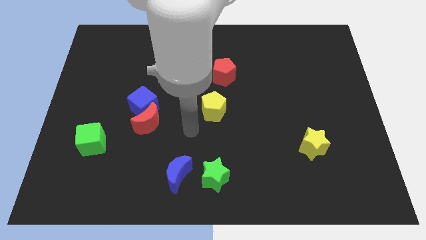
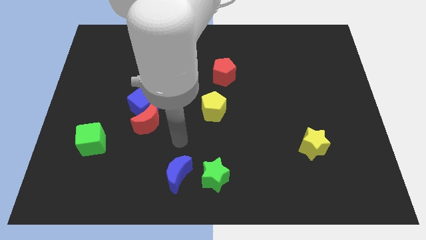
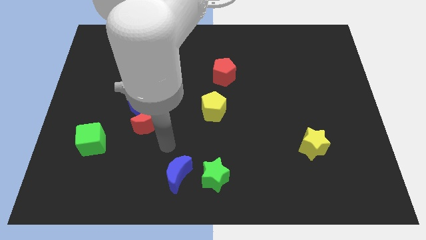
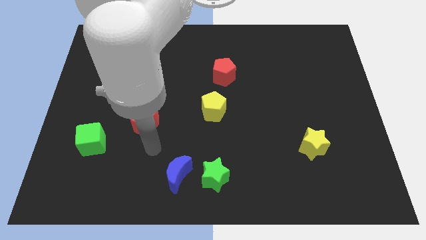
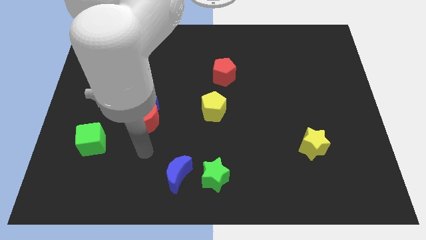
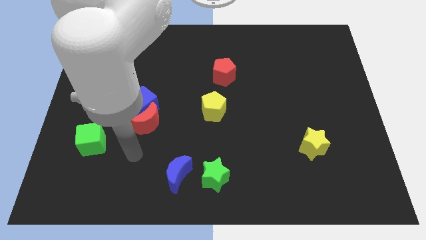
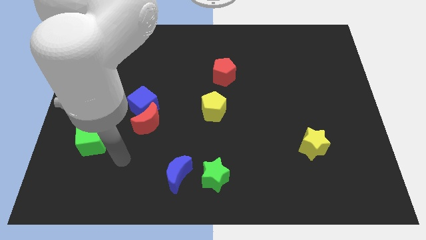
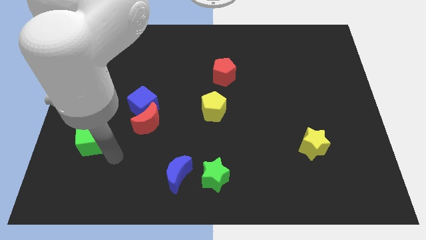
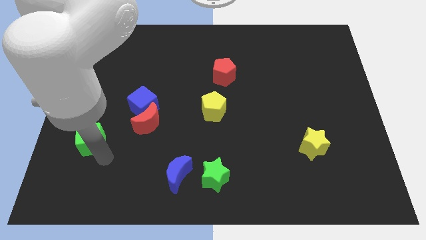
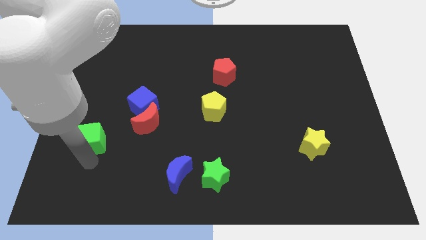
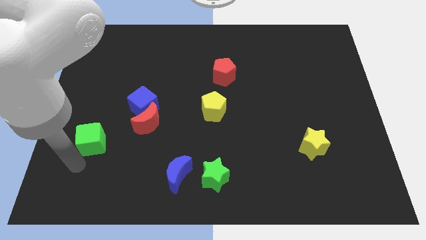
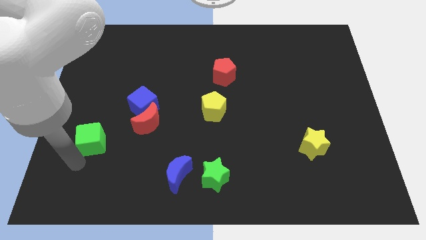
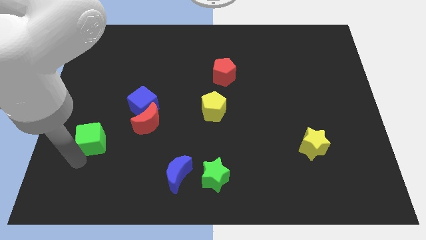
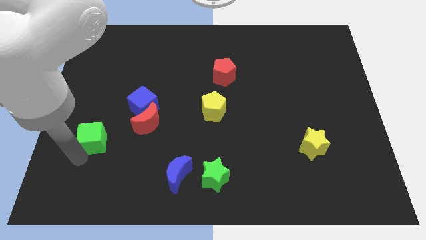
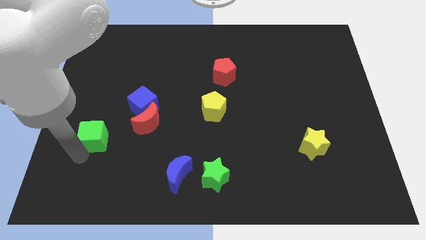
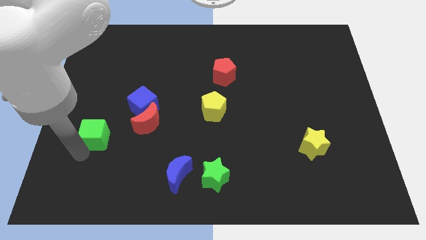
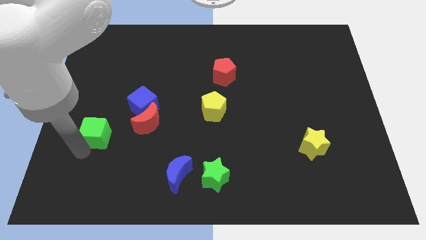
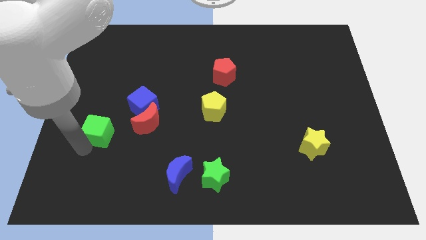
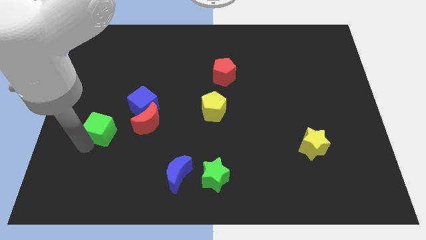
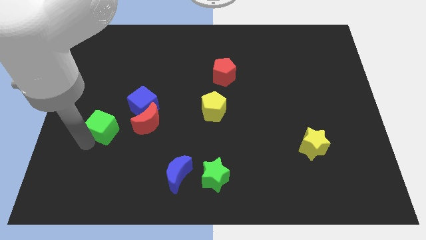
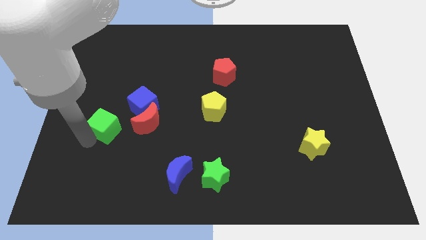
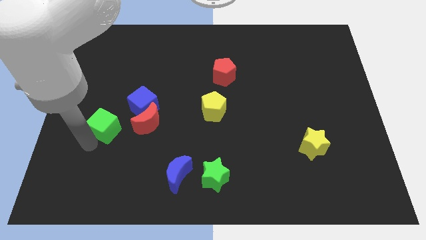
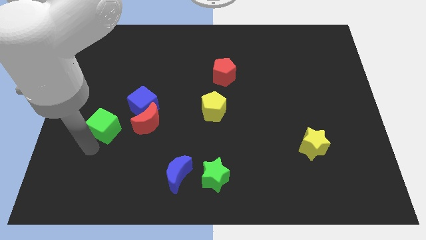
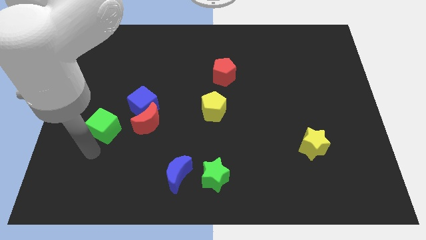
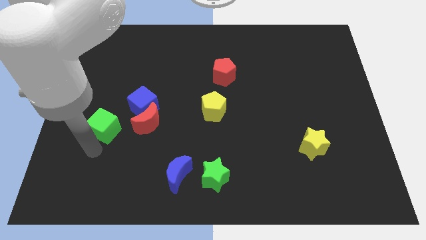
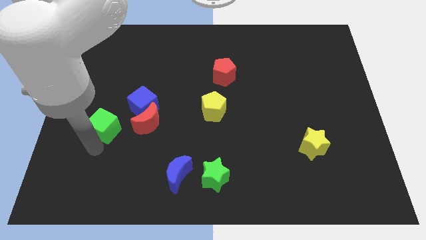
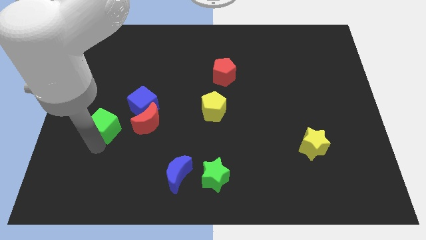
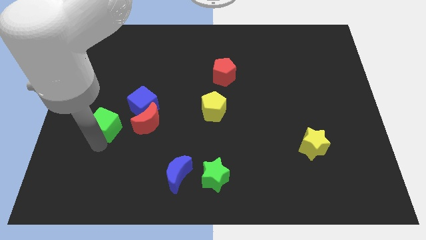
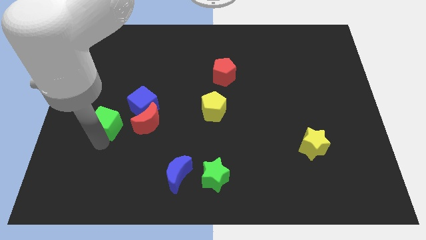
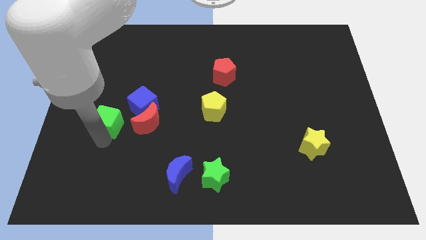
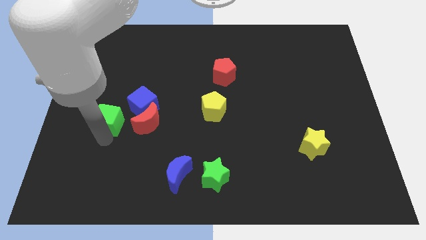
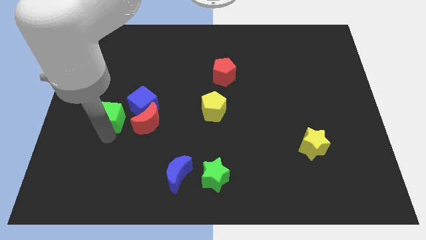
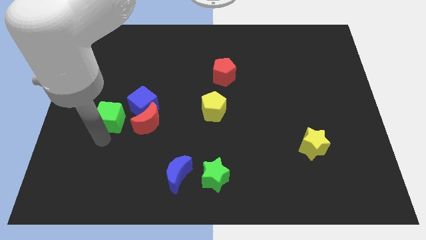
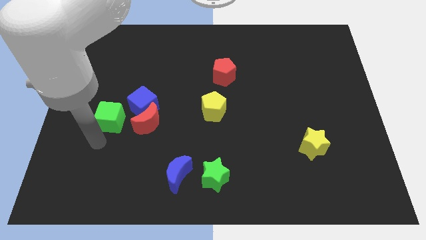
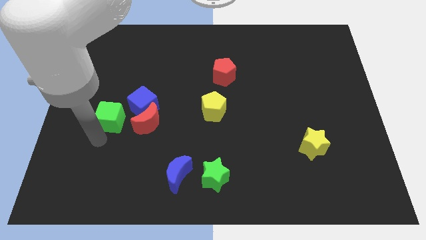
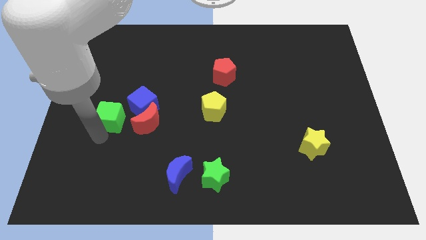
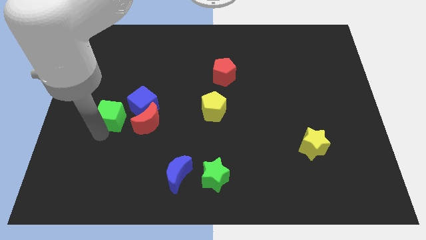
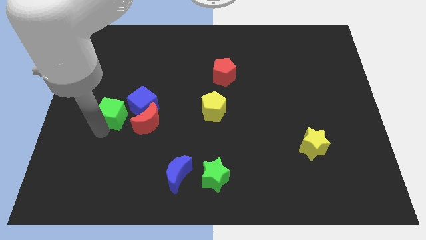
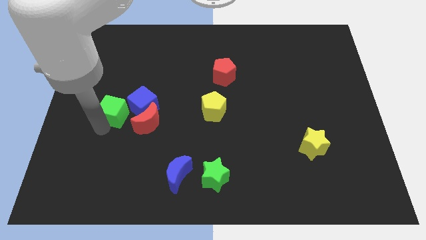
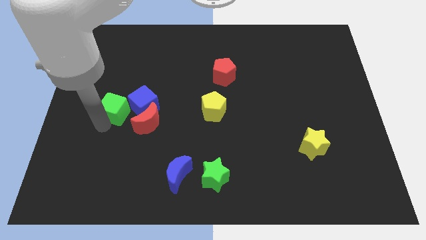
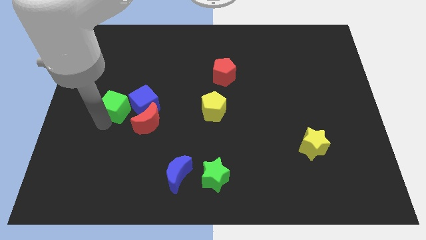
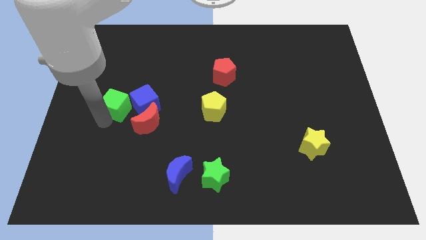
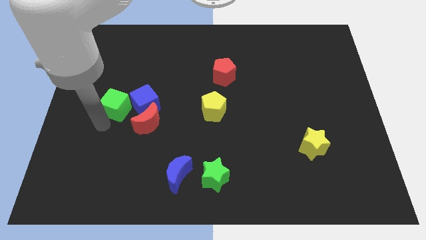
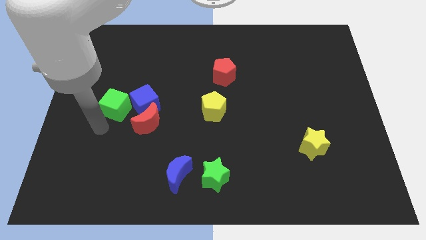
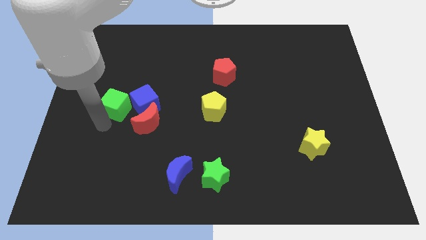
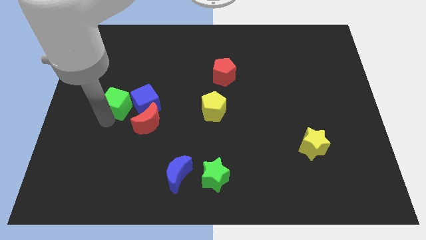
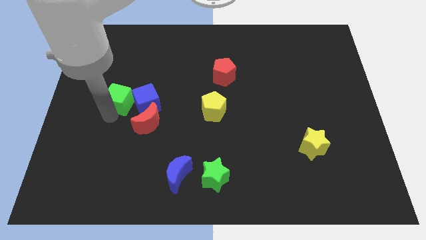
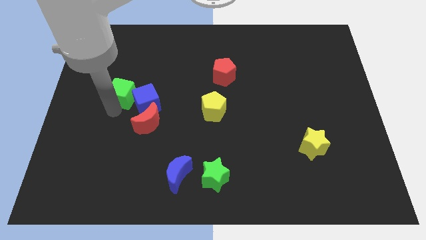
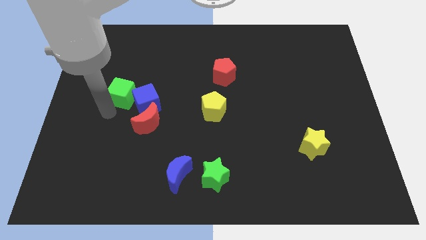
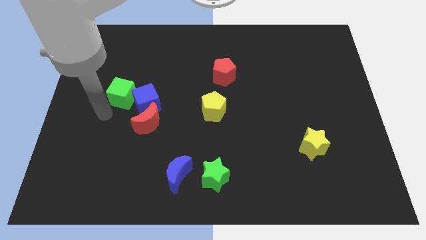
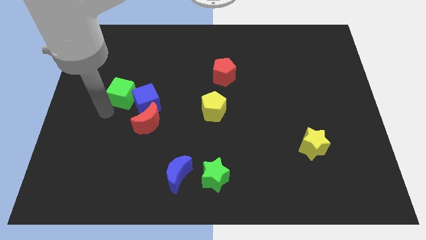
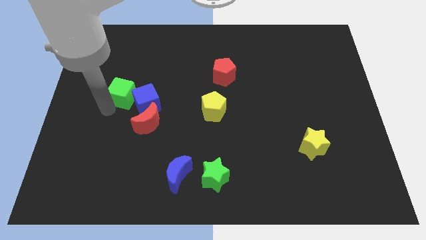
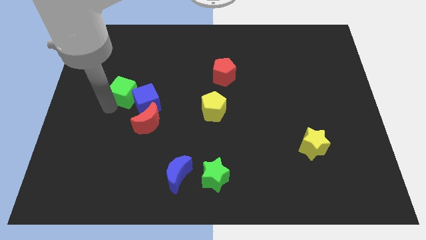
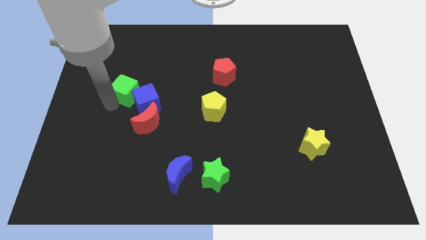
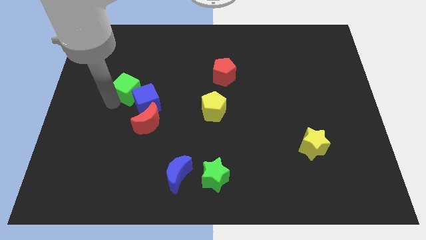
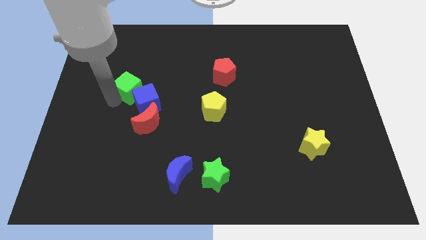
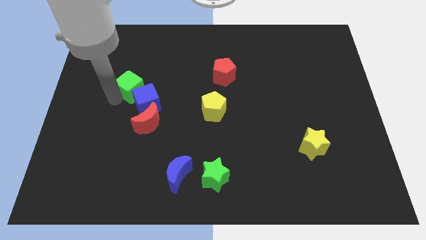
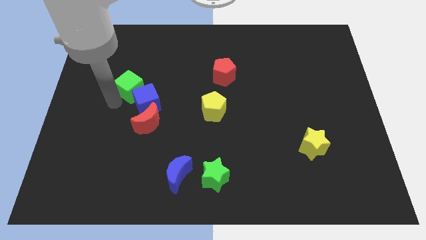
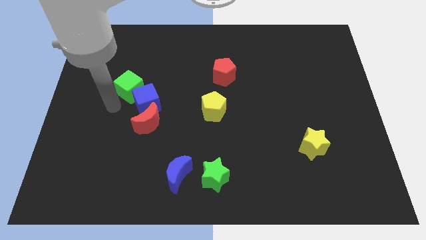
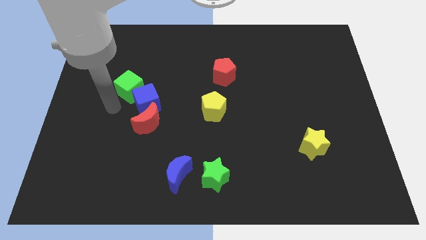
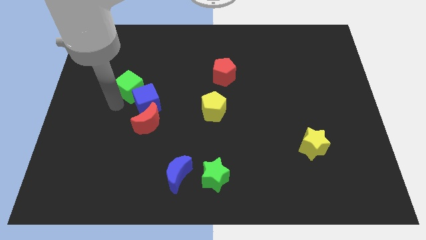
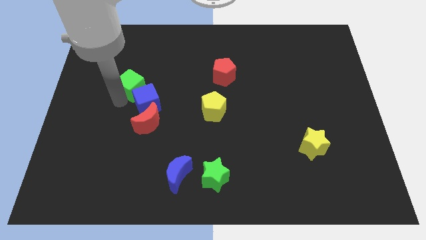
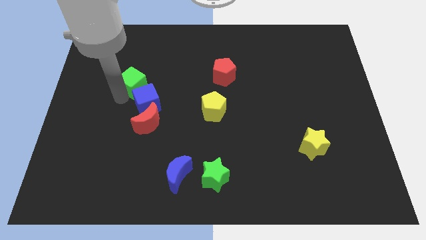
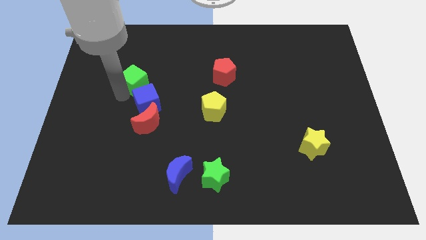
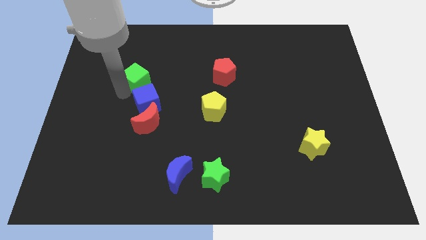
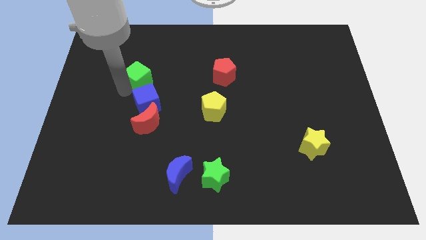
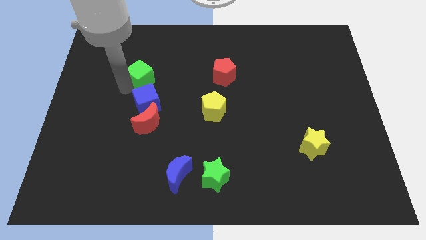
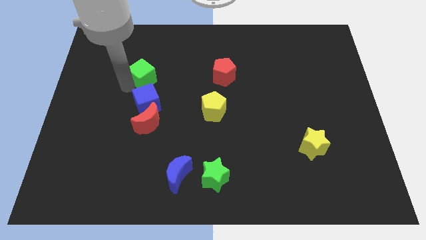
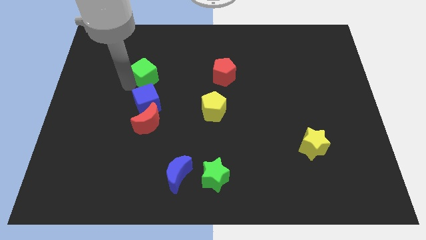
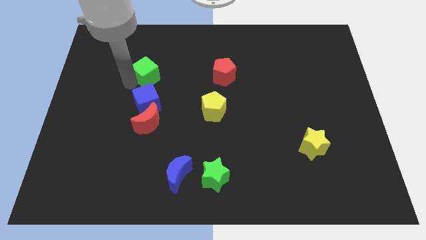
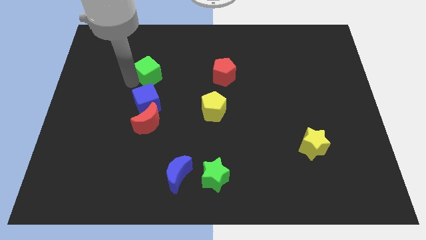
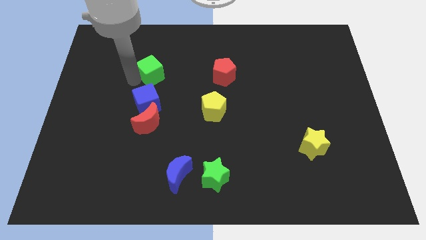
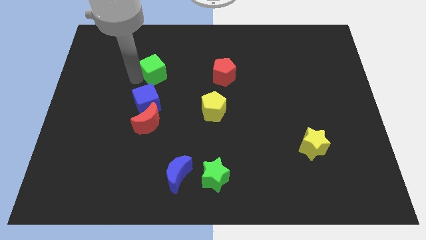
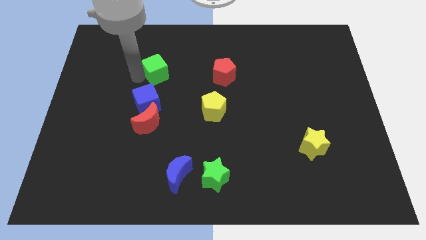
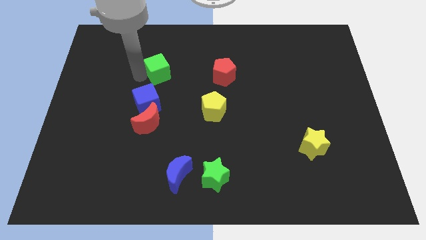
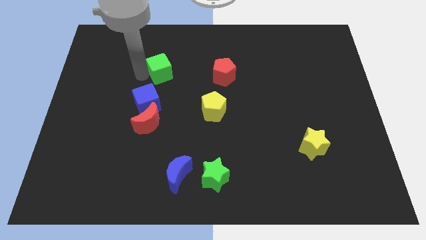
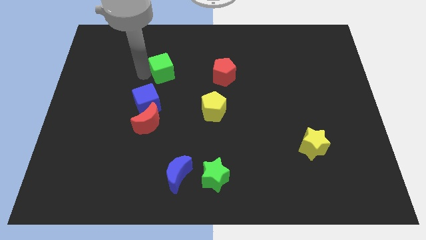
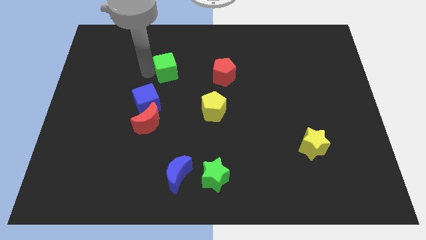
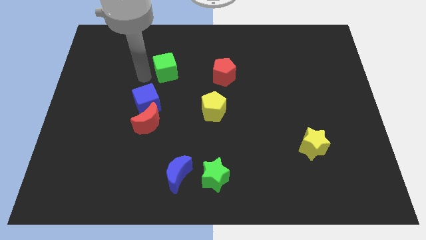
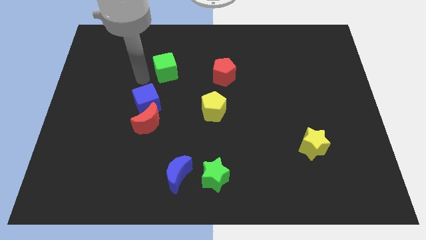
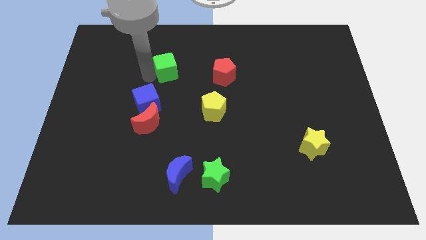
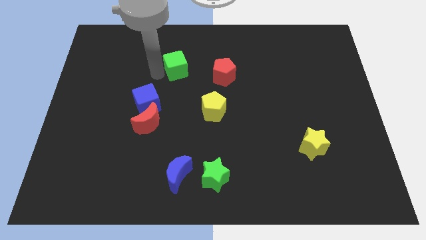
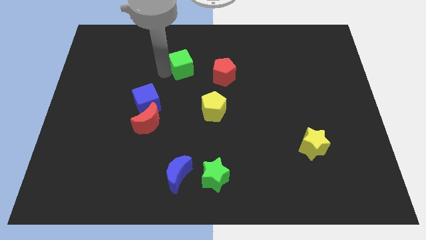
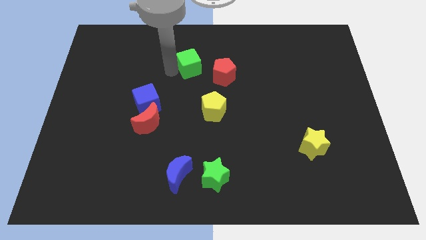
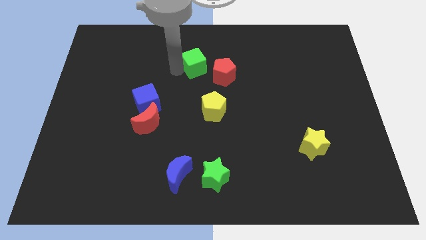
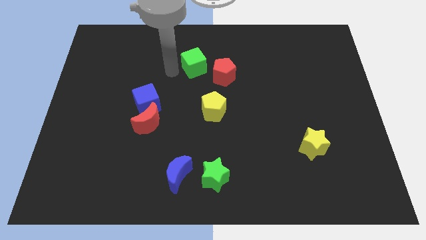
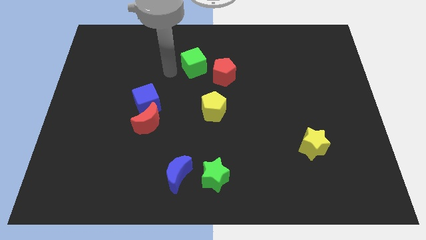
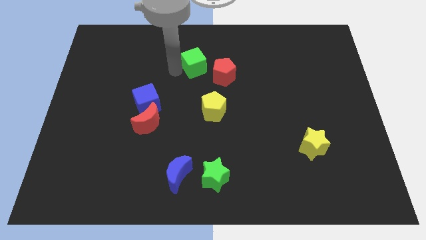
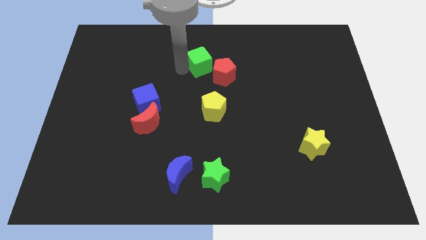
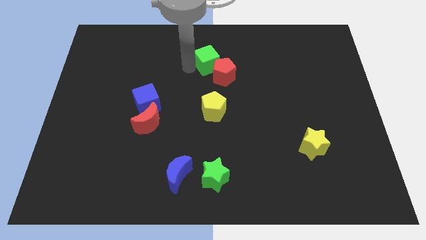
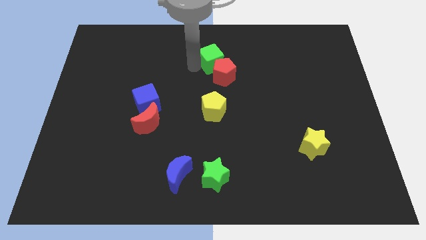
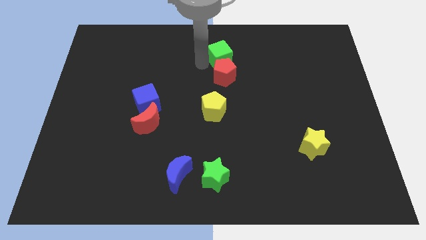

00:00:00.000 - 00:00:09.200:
move the green cube to the top right side of the red pentagon
